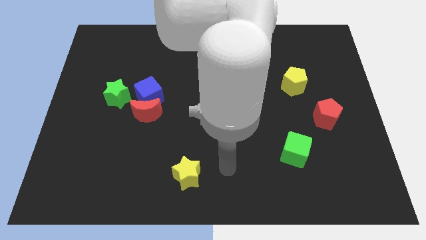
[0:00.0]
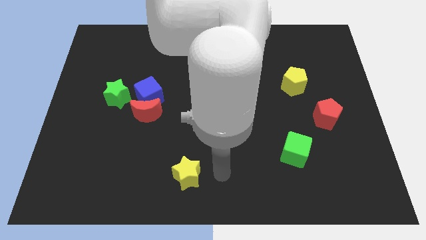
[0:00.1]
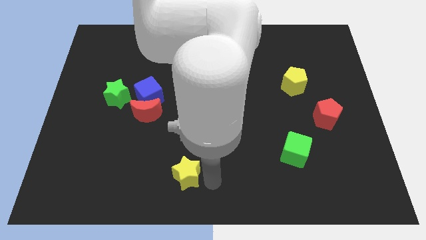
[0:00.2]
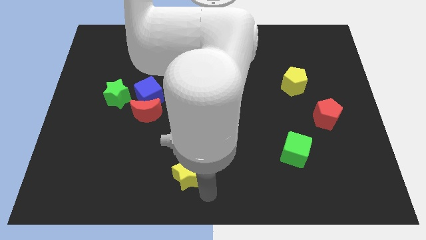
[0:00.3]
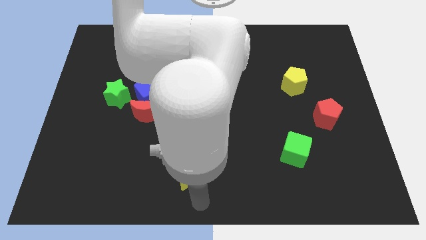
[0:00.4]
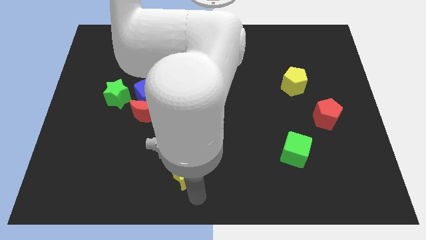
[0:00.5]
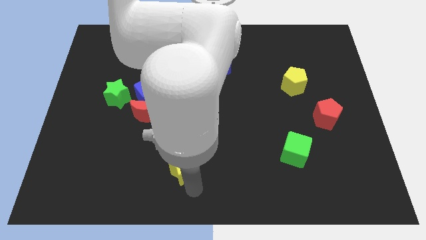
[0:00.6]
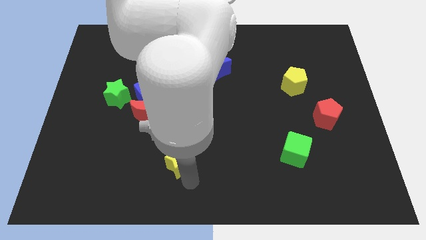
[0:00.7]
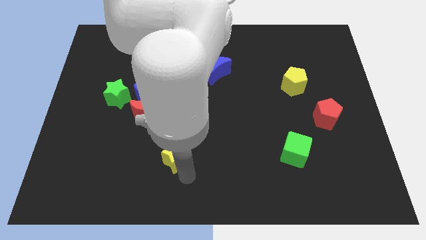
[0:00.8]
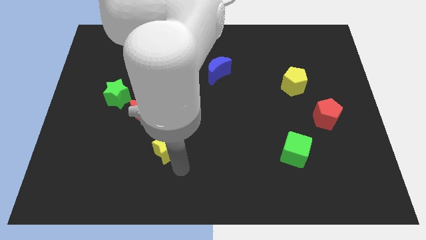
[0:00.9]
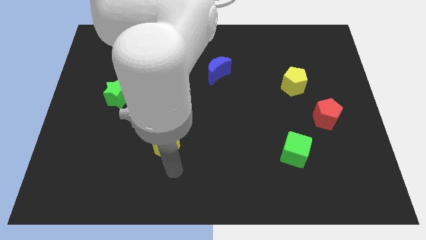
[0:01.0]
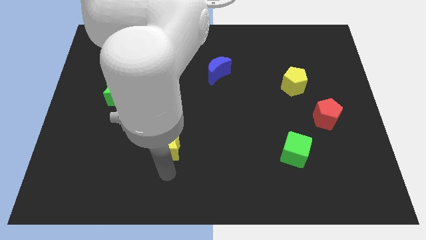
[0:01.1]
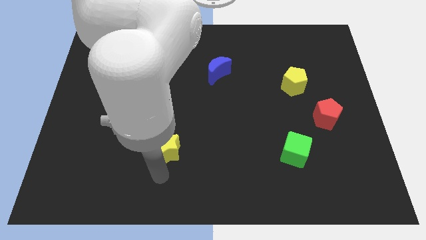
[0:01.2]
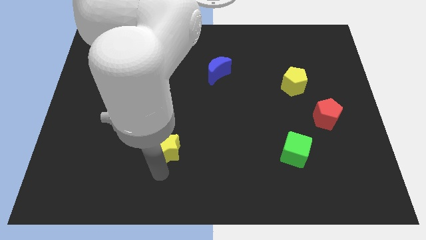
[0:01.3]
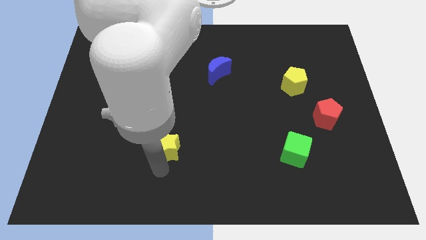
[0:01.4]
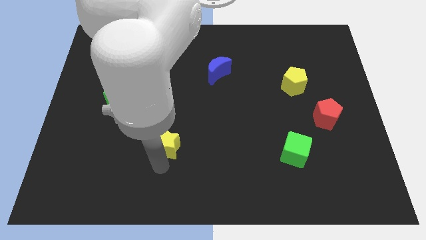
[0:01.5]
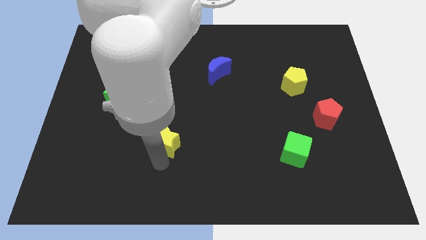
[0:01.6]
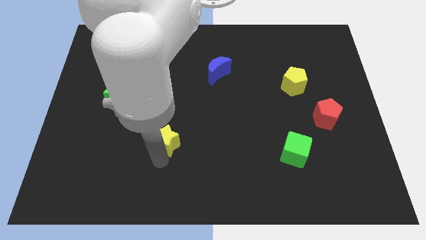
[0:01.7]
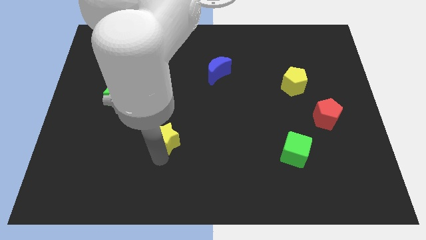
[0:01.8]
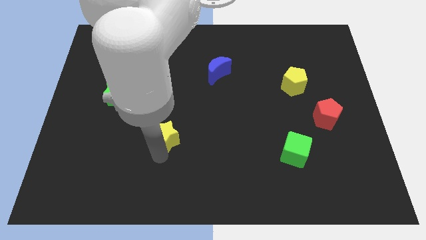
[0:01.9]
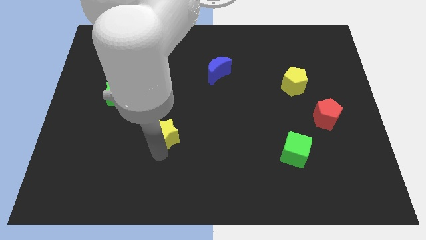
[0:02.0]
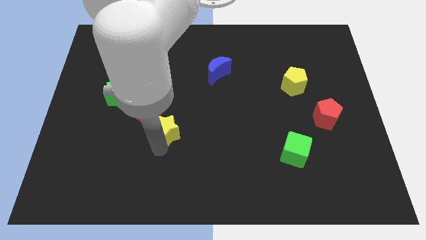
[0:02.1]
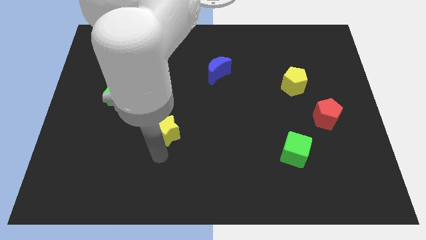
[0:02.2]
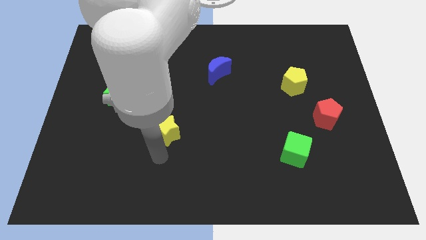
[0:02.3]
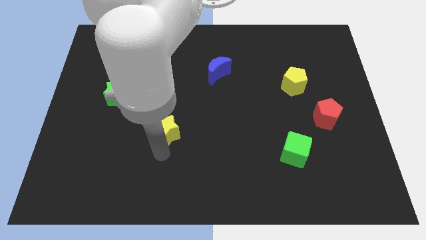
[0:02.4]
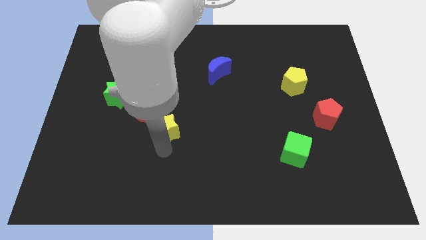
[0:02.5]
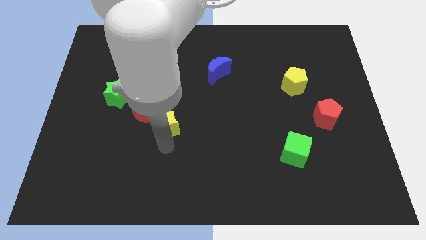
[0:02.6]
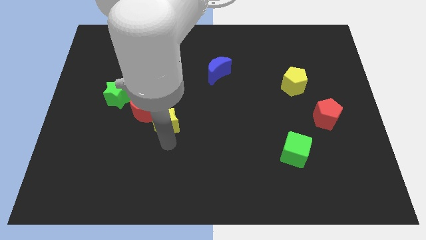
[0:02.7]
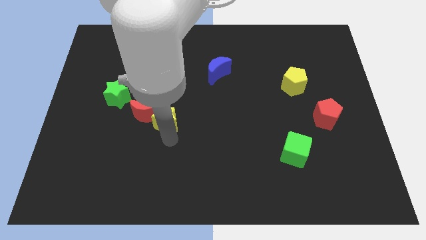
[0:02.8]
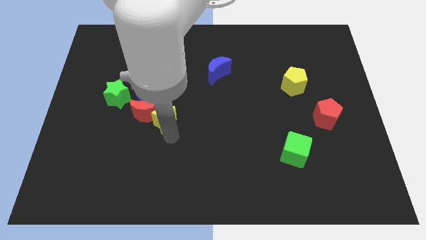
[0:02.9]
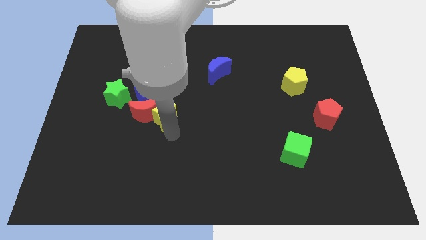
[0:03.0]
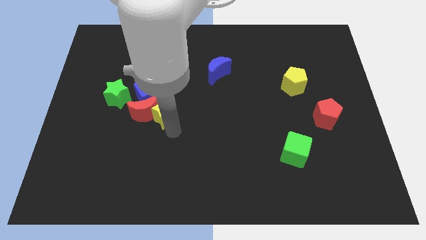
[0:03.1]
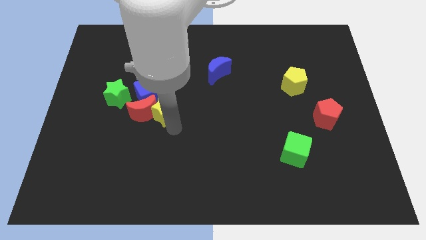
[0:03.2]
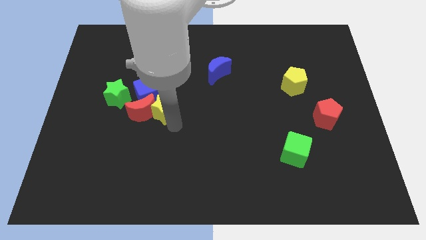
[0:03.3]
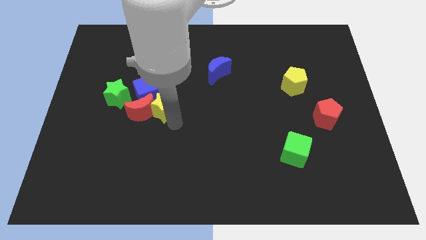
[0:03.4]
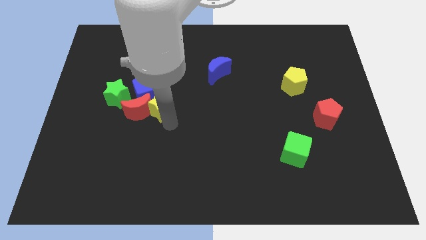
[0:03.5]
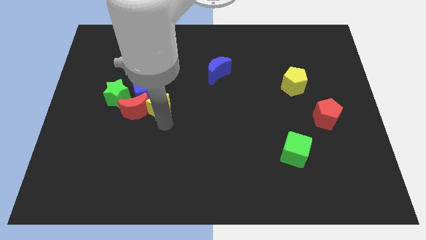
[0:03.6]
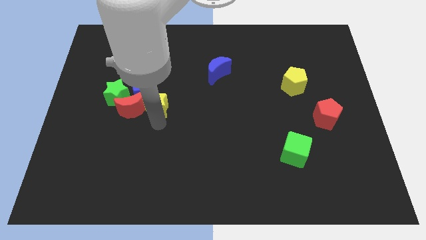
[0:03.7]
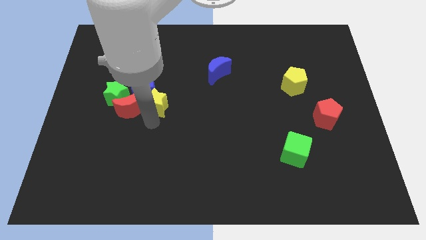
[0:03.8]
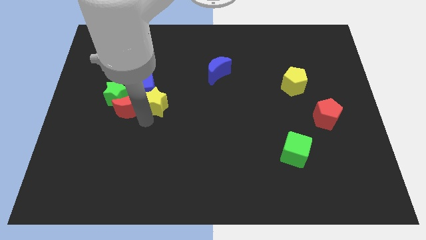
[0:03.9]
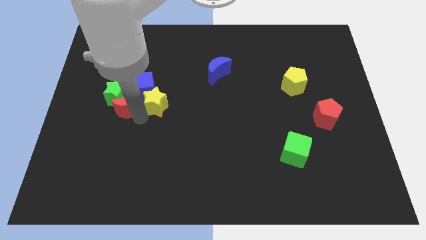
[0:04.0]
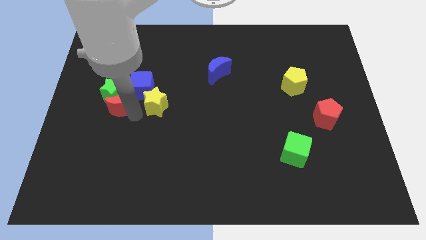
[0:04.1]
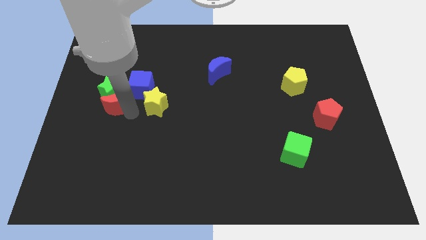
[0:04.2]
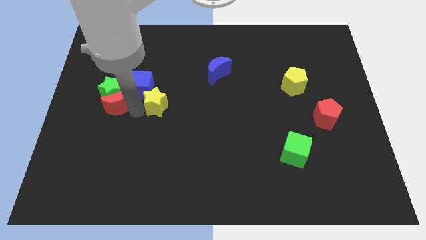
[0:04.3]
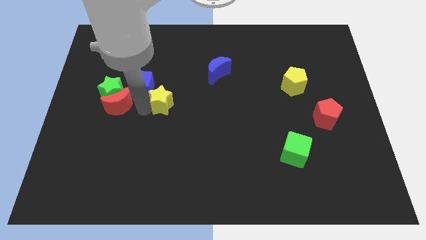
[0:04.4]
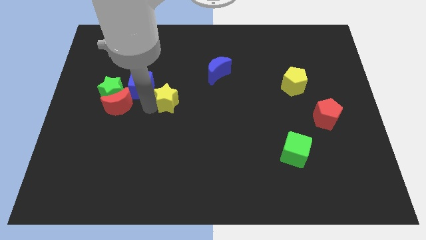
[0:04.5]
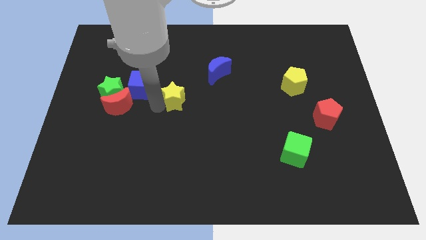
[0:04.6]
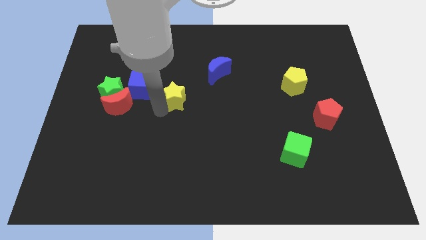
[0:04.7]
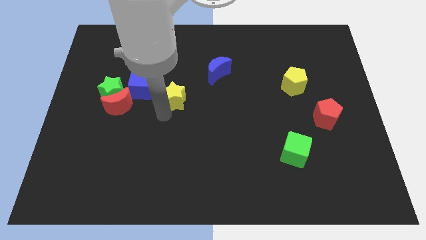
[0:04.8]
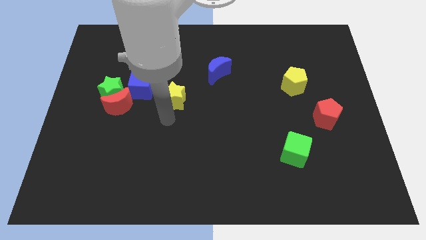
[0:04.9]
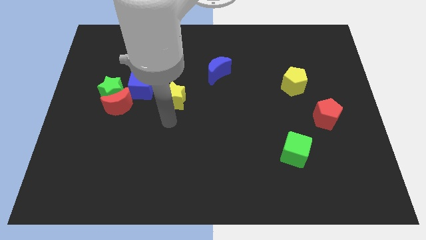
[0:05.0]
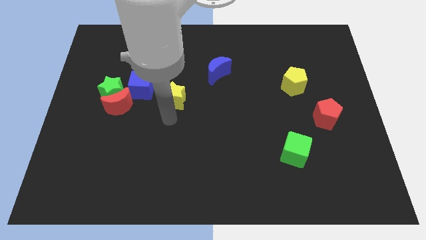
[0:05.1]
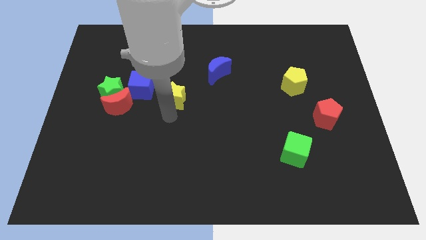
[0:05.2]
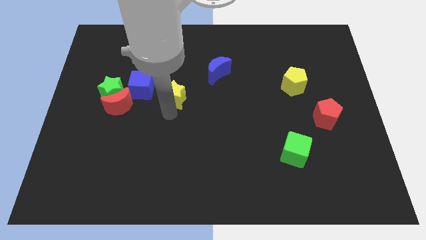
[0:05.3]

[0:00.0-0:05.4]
push the yellow star up

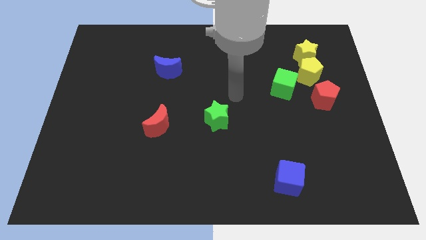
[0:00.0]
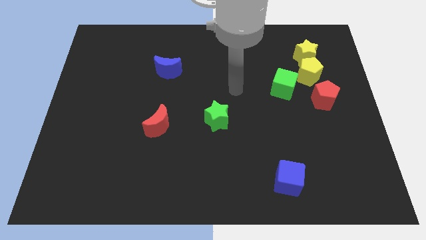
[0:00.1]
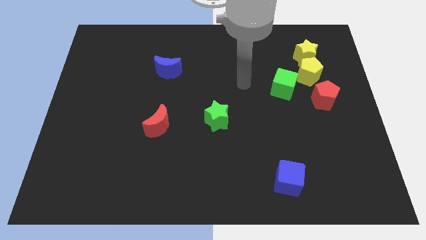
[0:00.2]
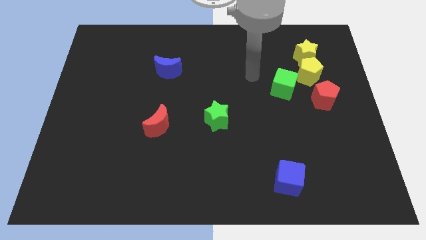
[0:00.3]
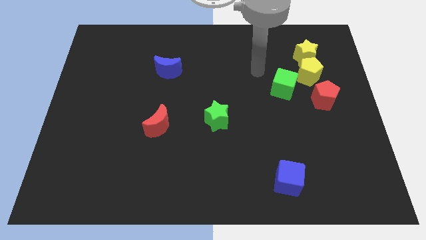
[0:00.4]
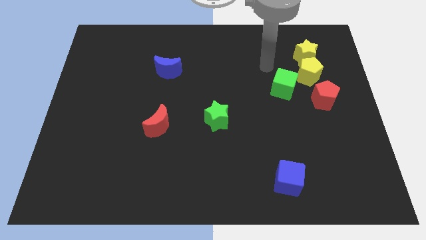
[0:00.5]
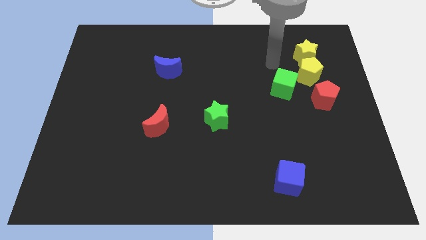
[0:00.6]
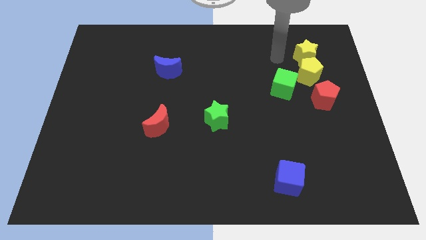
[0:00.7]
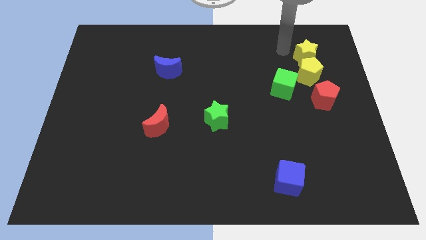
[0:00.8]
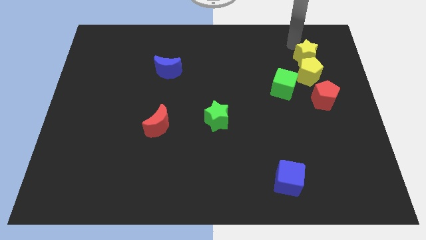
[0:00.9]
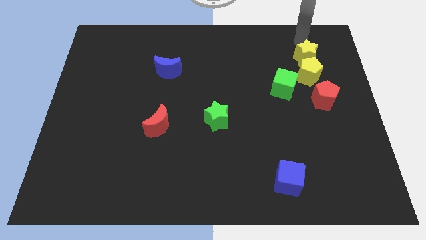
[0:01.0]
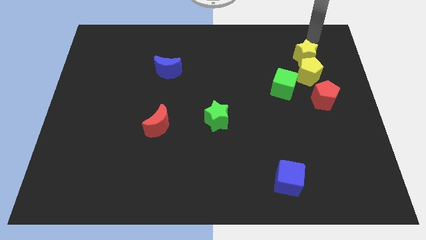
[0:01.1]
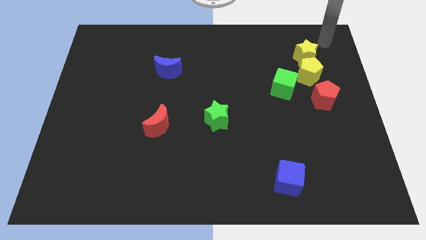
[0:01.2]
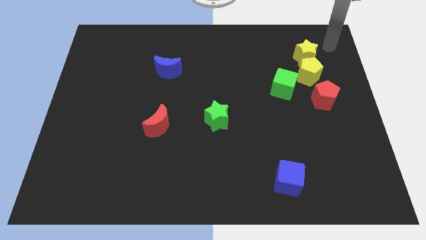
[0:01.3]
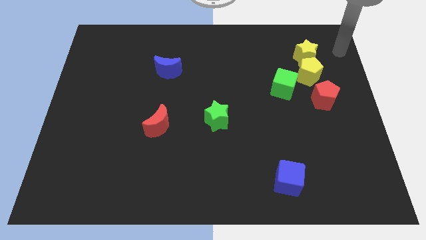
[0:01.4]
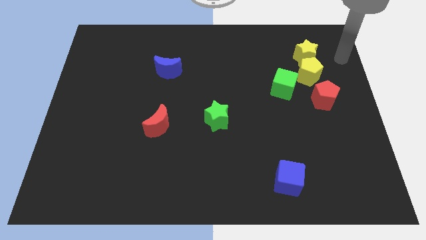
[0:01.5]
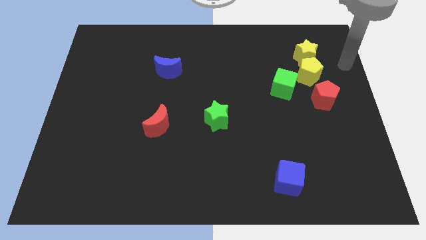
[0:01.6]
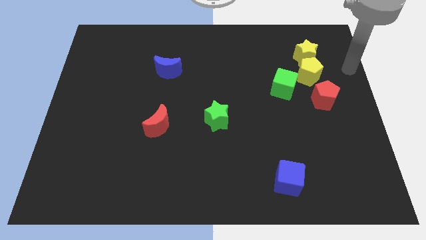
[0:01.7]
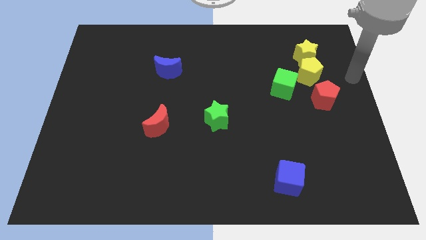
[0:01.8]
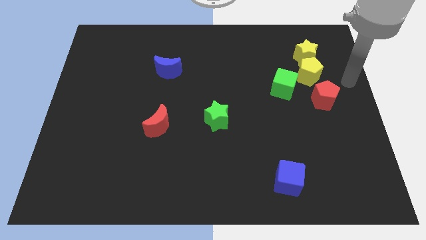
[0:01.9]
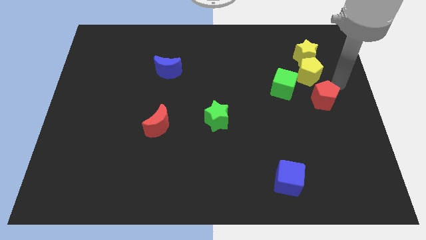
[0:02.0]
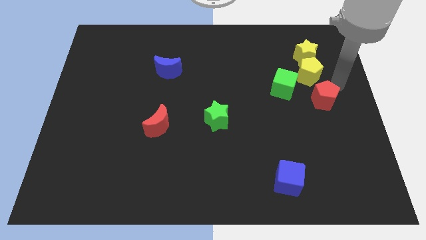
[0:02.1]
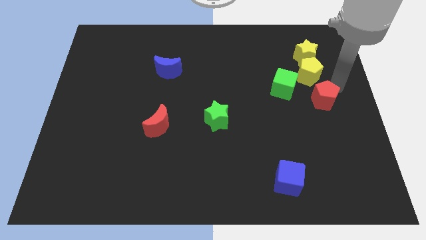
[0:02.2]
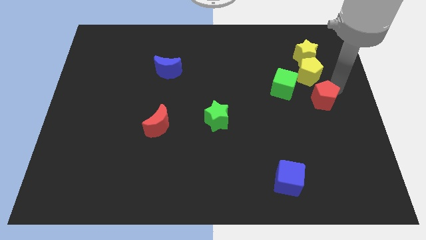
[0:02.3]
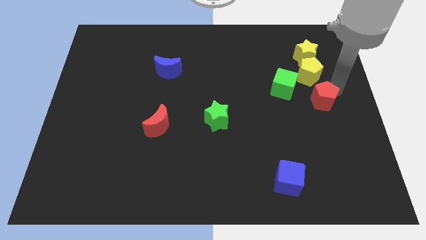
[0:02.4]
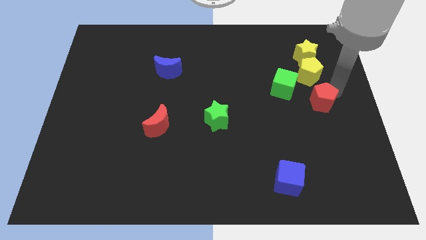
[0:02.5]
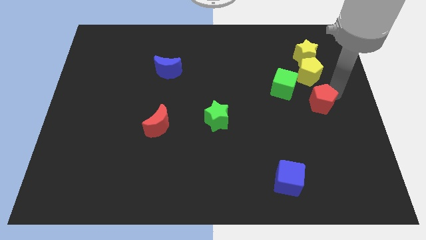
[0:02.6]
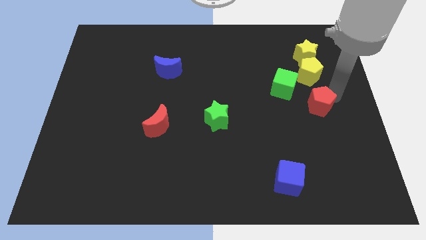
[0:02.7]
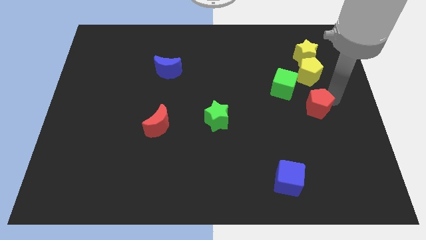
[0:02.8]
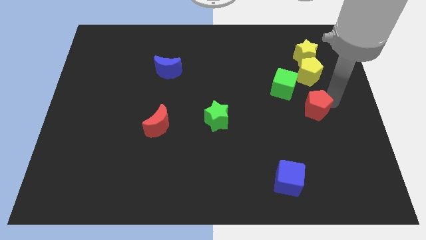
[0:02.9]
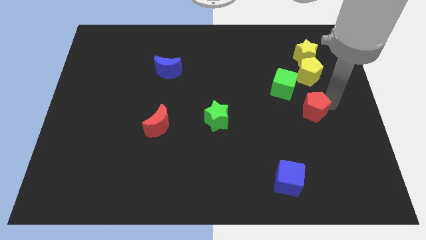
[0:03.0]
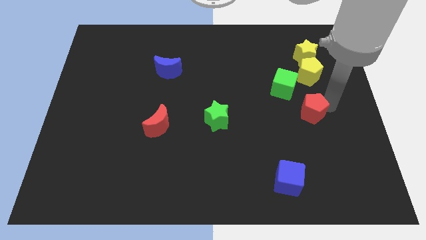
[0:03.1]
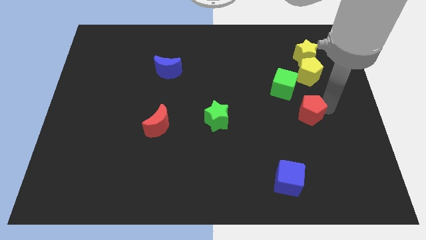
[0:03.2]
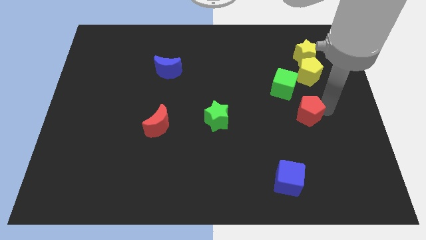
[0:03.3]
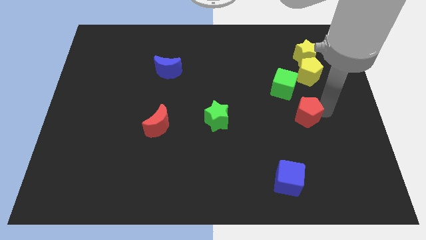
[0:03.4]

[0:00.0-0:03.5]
slightly move the red pentagon diagonally downwards and left
